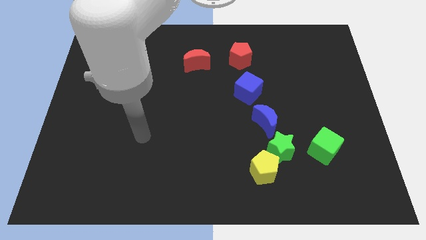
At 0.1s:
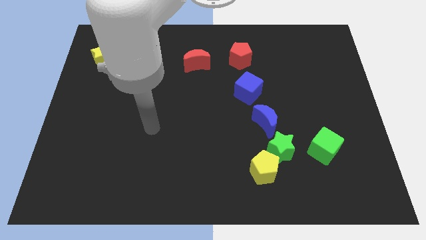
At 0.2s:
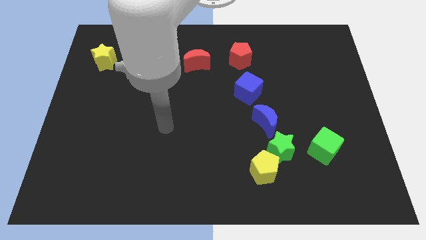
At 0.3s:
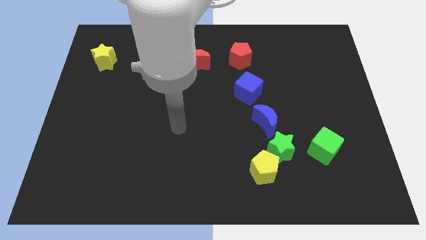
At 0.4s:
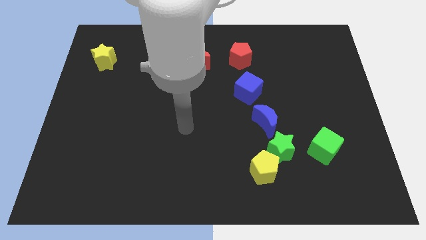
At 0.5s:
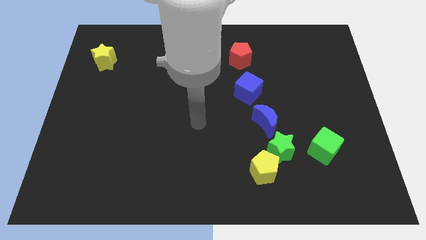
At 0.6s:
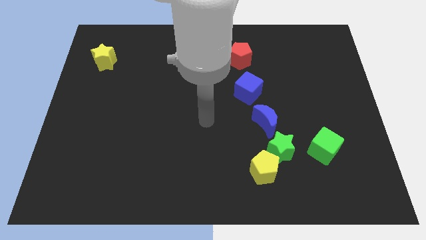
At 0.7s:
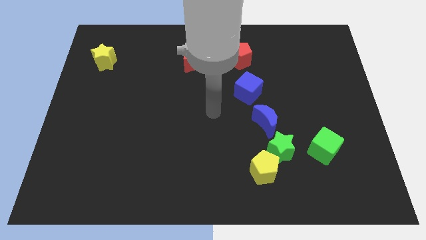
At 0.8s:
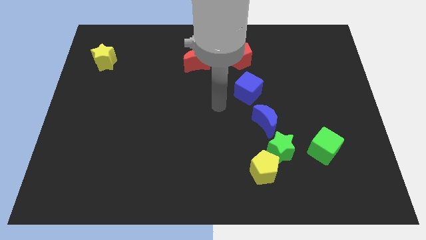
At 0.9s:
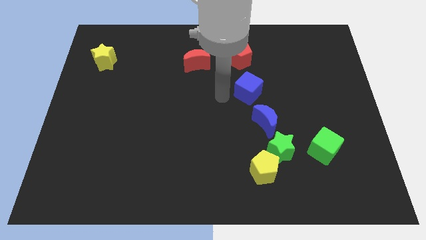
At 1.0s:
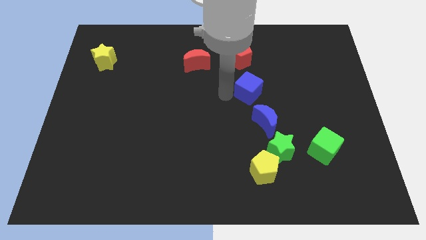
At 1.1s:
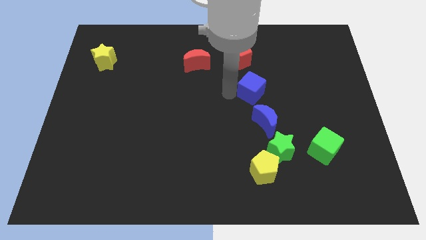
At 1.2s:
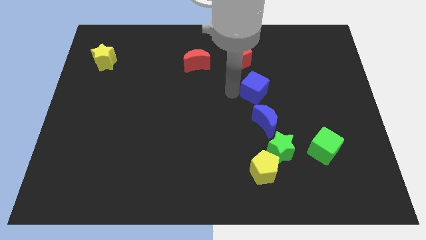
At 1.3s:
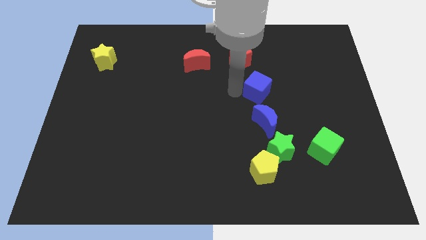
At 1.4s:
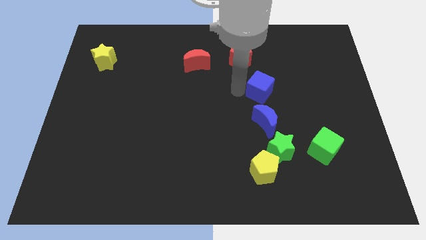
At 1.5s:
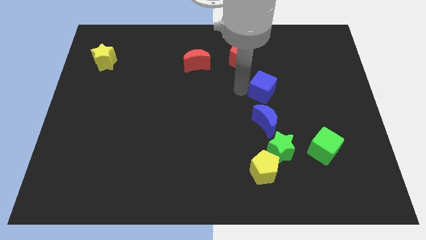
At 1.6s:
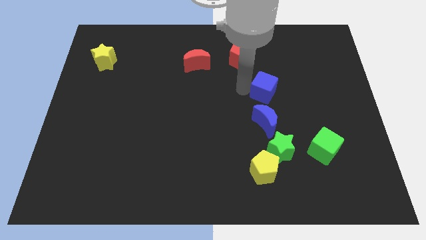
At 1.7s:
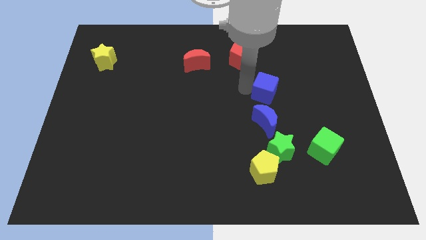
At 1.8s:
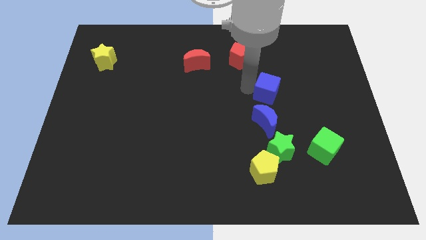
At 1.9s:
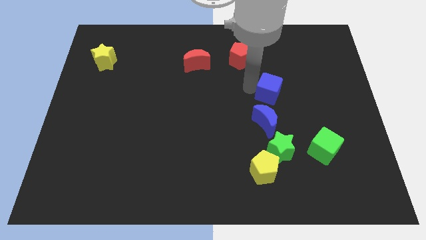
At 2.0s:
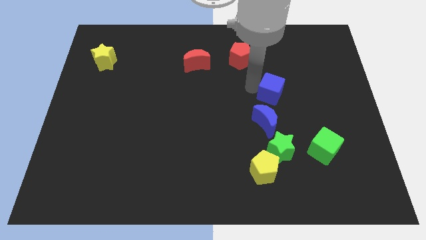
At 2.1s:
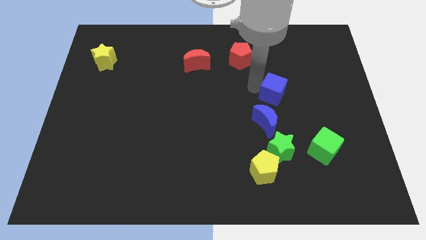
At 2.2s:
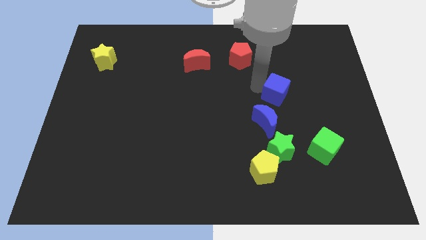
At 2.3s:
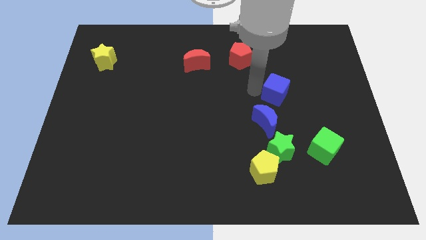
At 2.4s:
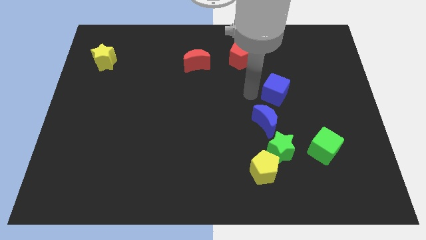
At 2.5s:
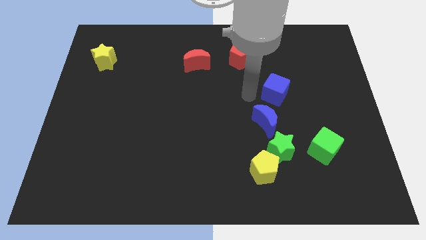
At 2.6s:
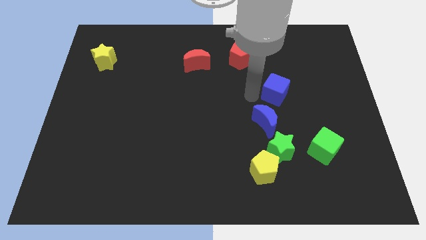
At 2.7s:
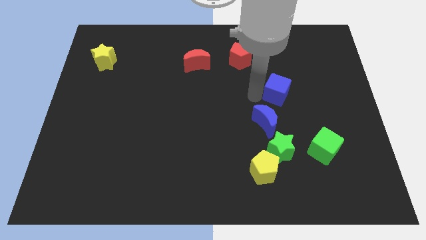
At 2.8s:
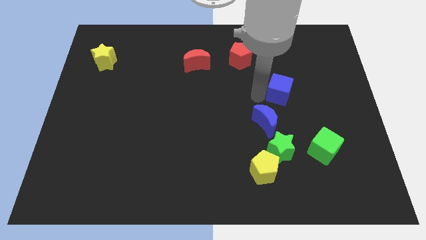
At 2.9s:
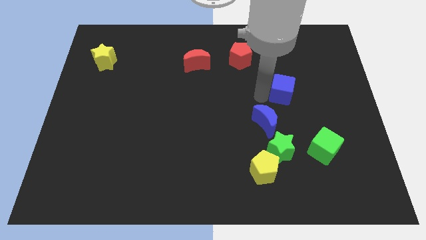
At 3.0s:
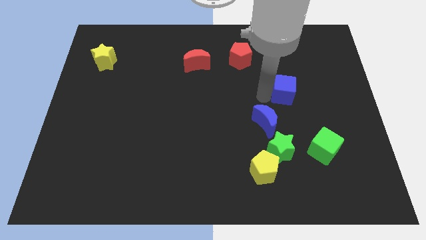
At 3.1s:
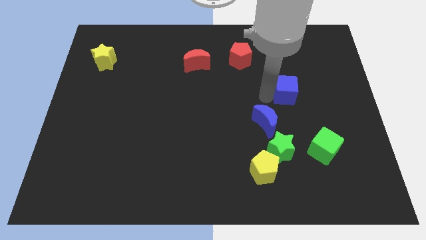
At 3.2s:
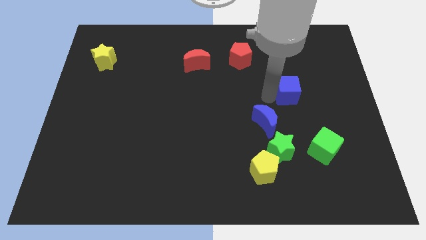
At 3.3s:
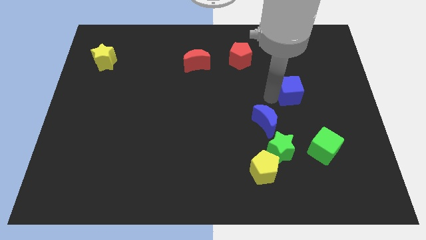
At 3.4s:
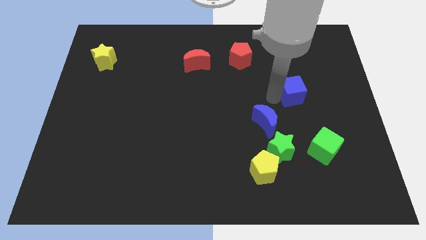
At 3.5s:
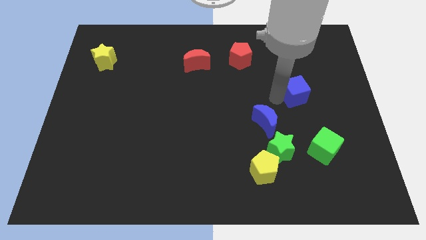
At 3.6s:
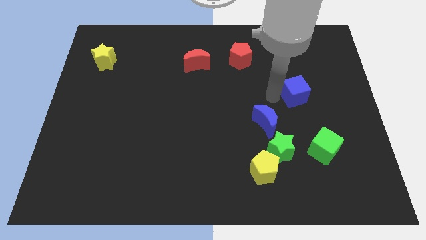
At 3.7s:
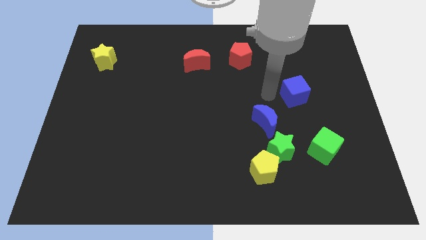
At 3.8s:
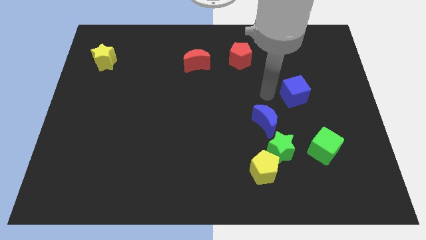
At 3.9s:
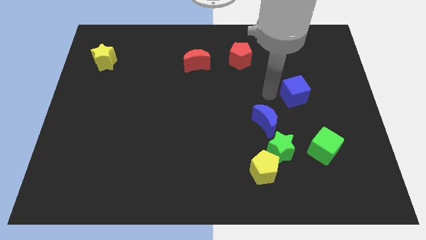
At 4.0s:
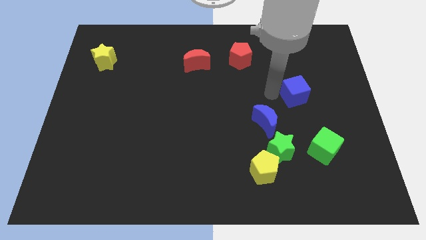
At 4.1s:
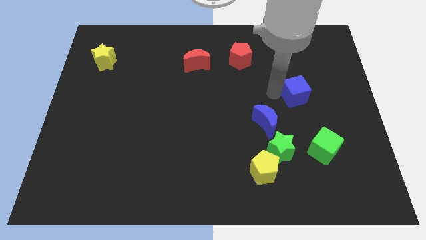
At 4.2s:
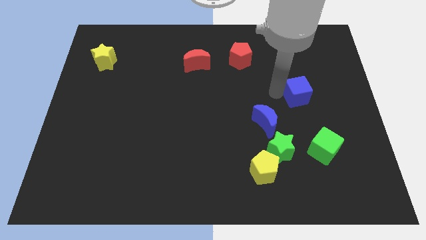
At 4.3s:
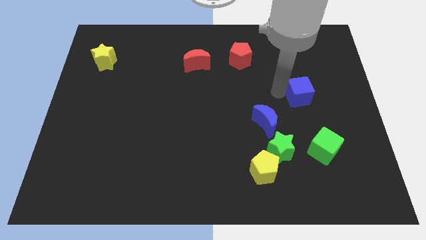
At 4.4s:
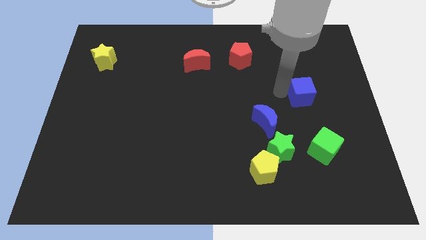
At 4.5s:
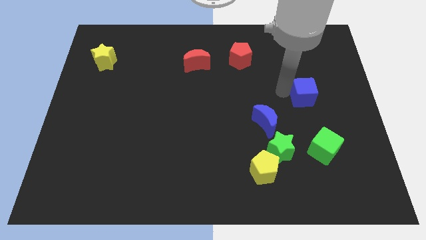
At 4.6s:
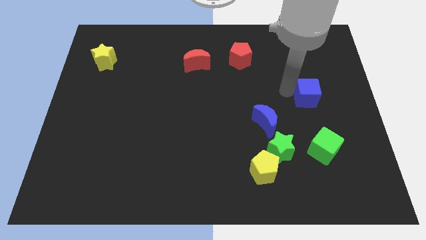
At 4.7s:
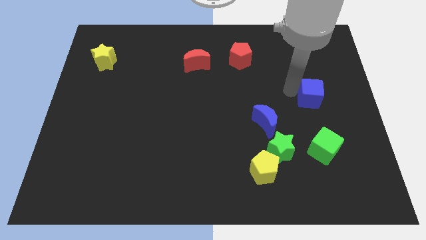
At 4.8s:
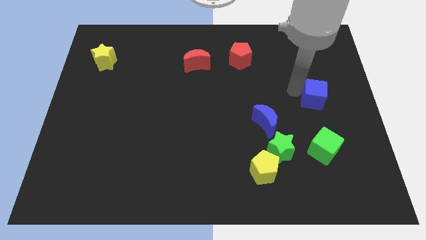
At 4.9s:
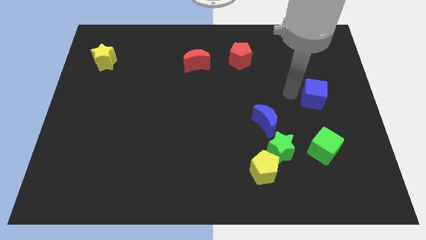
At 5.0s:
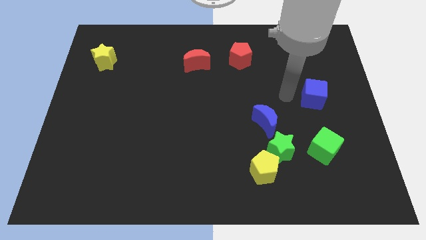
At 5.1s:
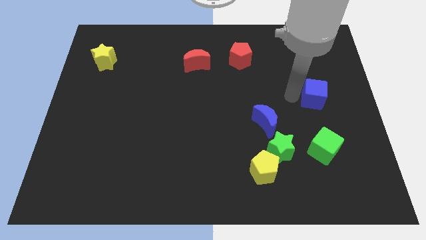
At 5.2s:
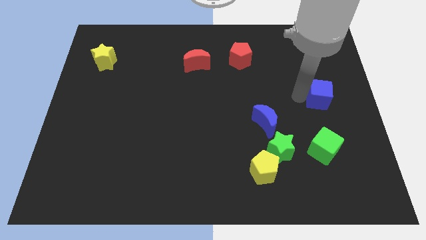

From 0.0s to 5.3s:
put the blue cube to the right side of the board

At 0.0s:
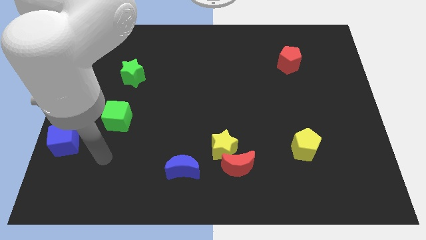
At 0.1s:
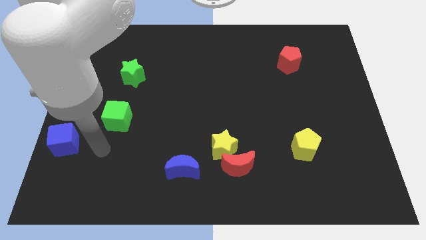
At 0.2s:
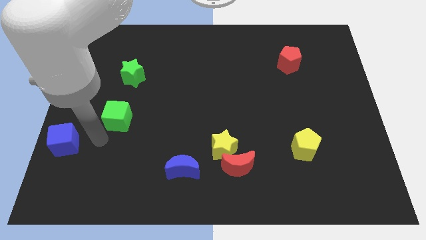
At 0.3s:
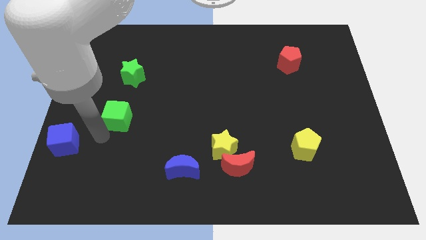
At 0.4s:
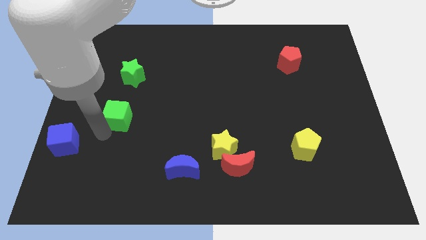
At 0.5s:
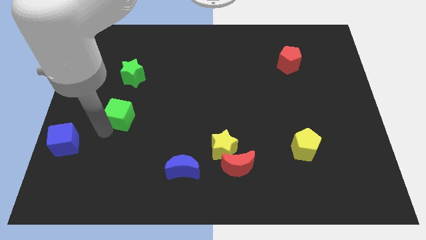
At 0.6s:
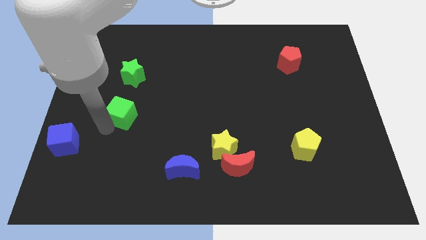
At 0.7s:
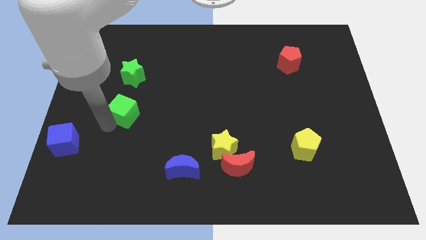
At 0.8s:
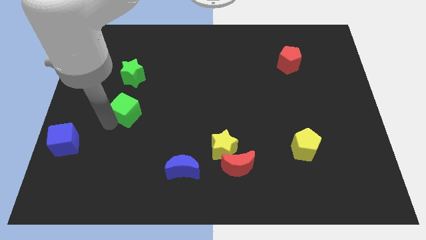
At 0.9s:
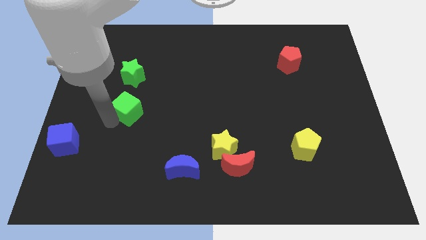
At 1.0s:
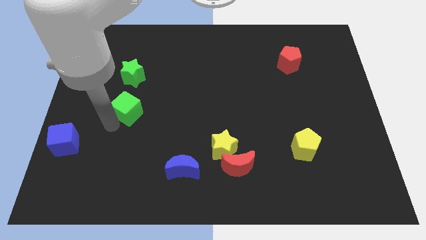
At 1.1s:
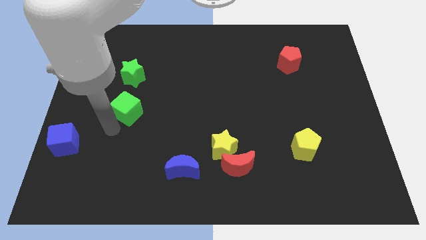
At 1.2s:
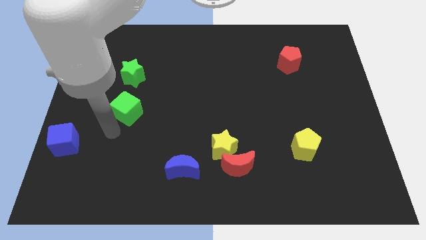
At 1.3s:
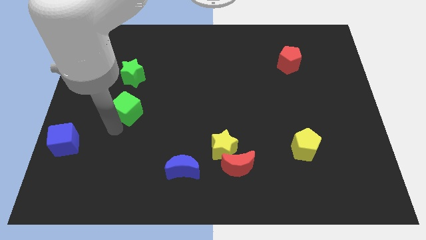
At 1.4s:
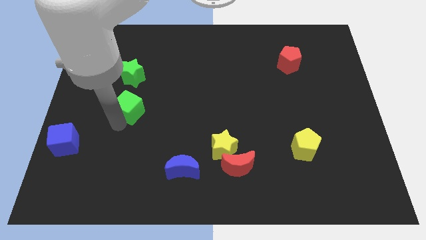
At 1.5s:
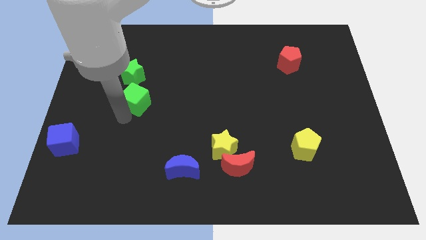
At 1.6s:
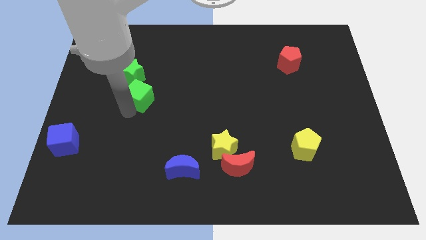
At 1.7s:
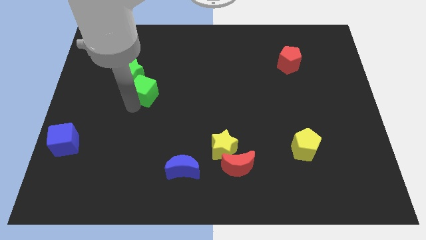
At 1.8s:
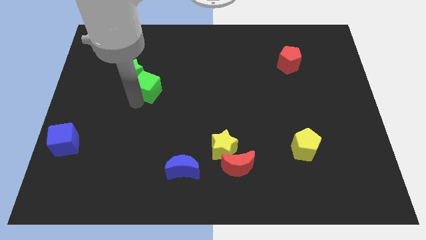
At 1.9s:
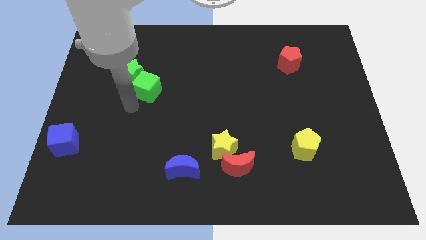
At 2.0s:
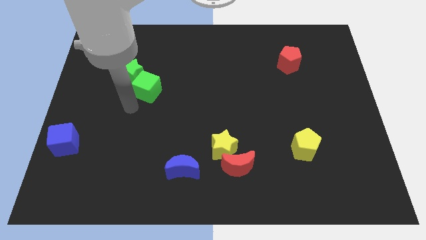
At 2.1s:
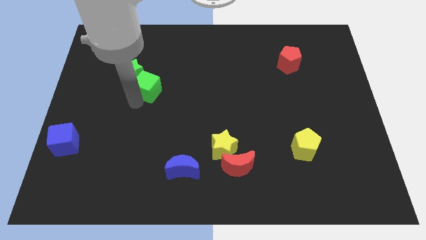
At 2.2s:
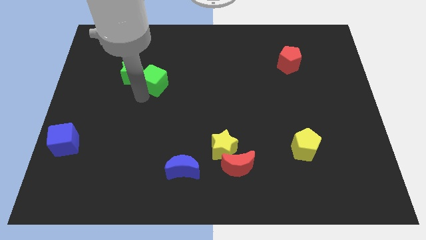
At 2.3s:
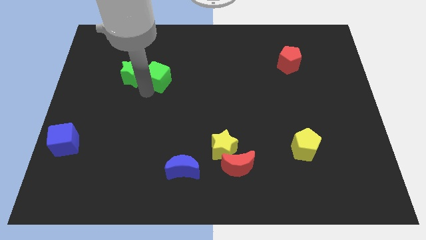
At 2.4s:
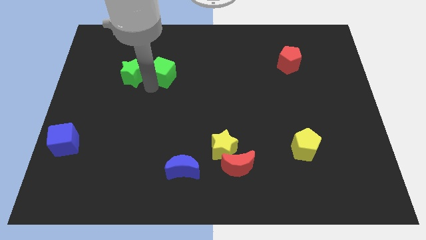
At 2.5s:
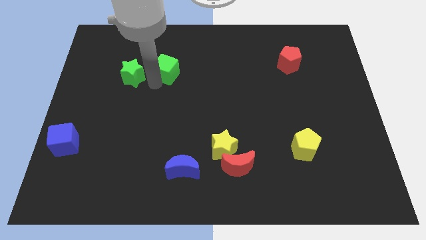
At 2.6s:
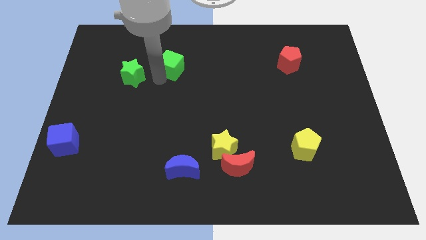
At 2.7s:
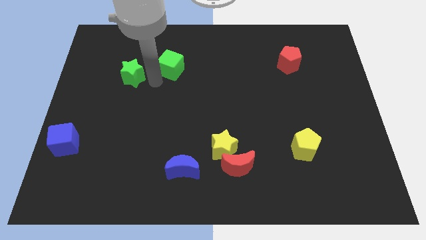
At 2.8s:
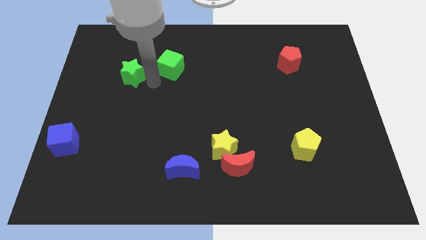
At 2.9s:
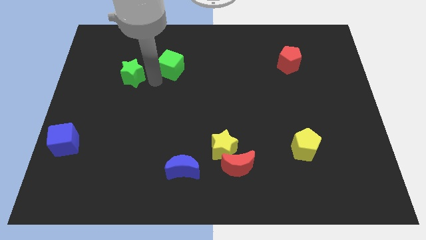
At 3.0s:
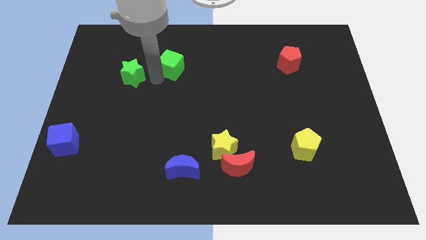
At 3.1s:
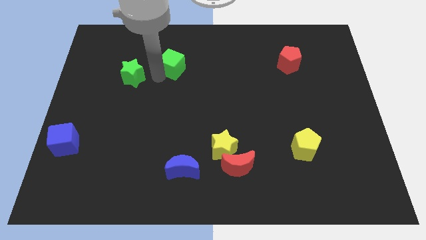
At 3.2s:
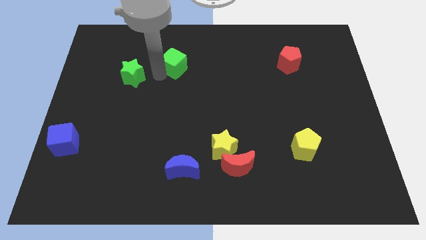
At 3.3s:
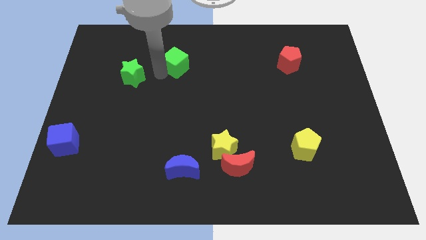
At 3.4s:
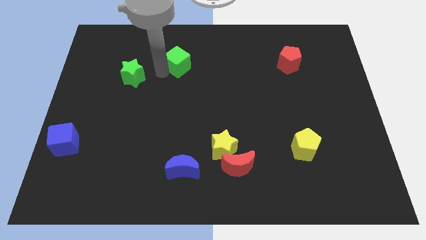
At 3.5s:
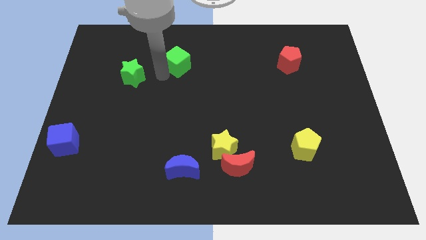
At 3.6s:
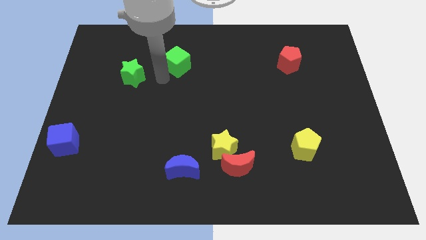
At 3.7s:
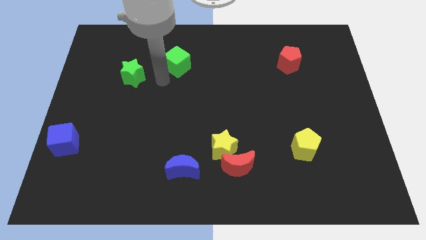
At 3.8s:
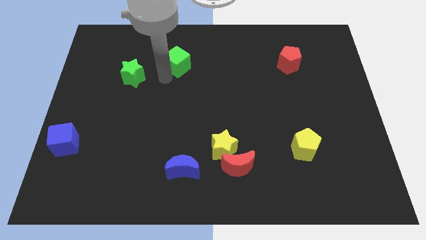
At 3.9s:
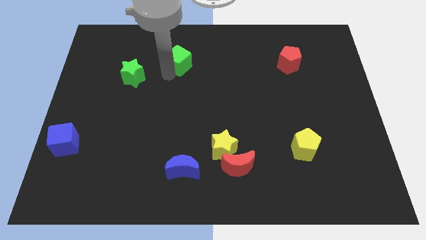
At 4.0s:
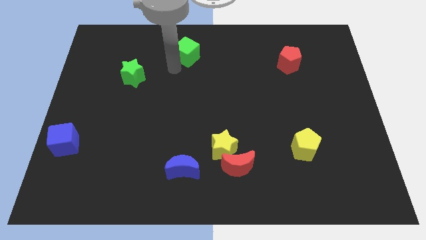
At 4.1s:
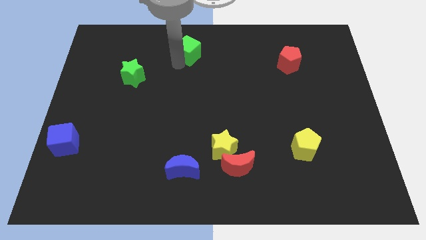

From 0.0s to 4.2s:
move the green cube to the top
